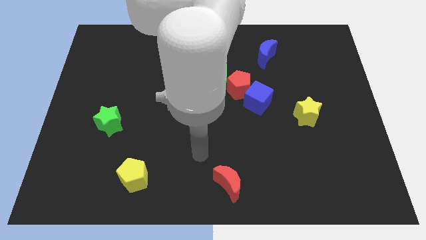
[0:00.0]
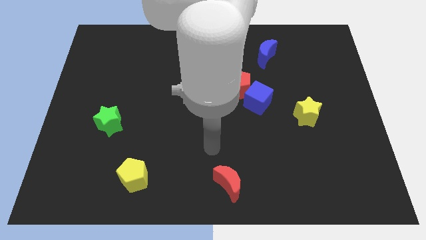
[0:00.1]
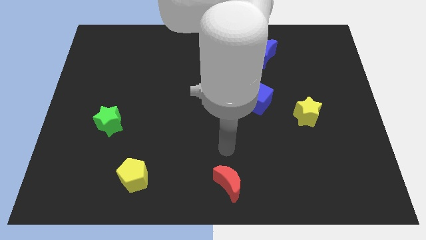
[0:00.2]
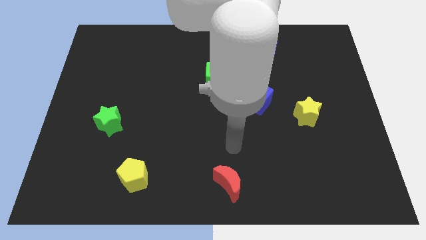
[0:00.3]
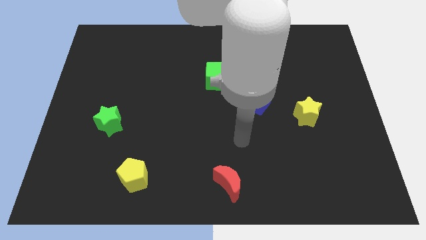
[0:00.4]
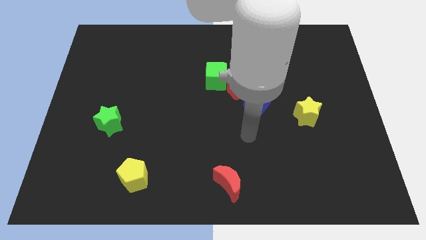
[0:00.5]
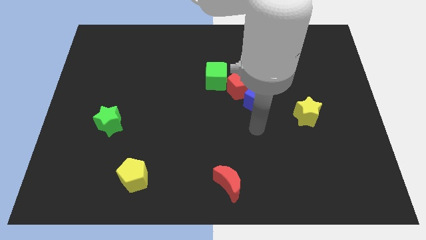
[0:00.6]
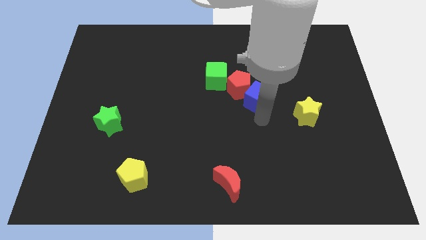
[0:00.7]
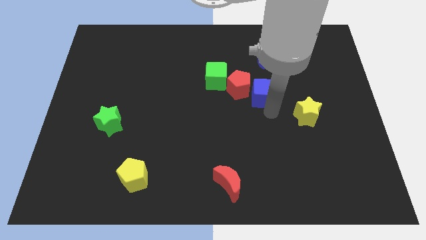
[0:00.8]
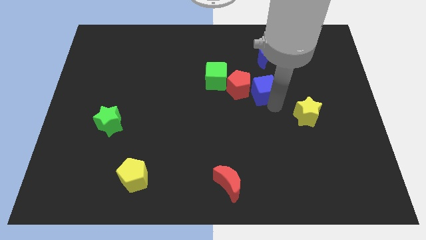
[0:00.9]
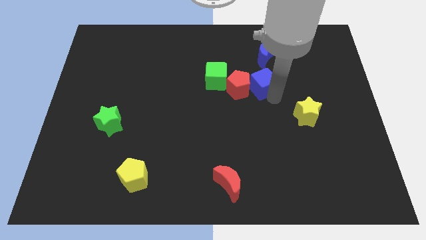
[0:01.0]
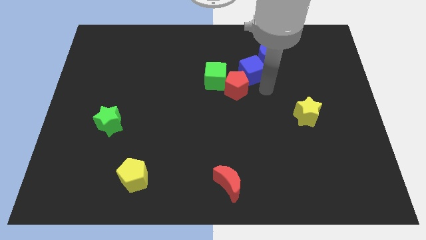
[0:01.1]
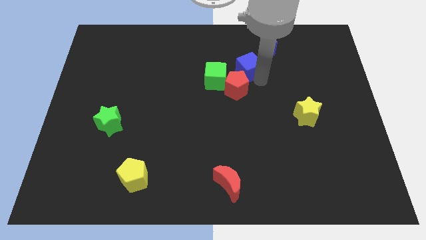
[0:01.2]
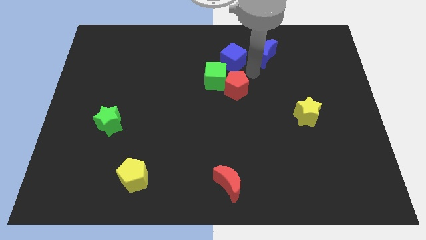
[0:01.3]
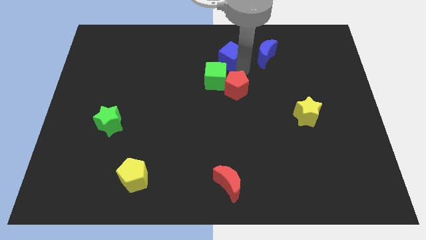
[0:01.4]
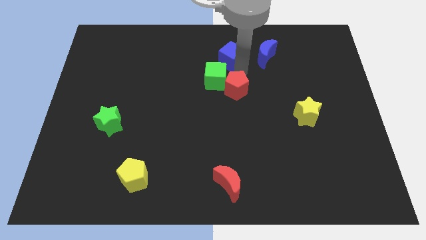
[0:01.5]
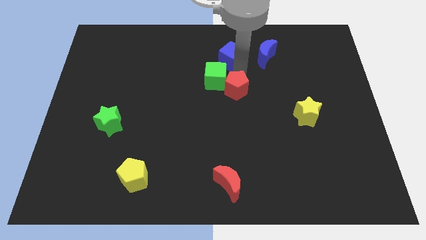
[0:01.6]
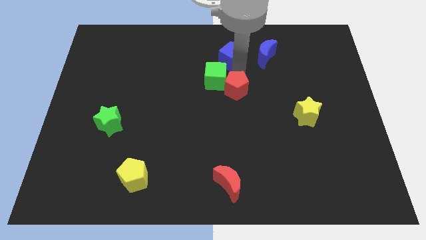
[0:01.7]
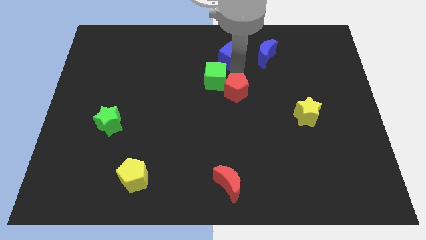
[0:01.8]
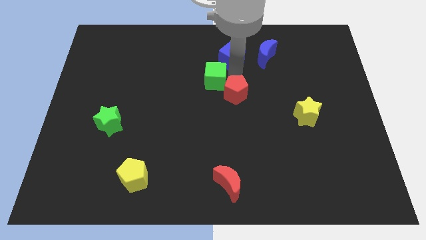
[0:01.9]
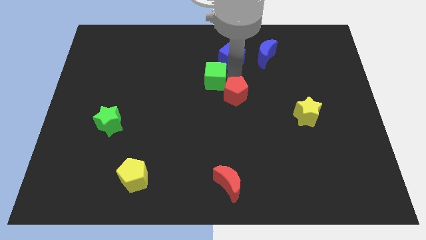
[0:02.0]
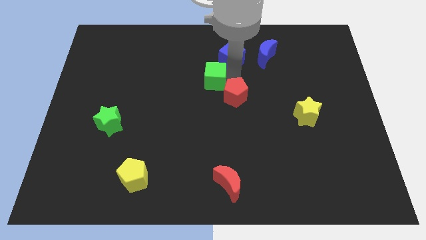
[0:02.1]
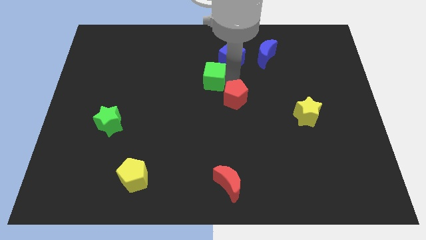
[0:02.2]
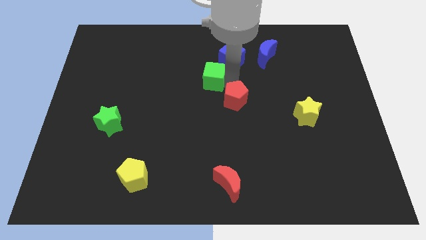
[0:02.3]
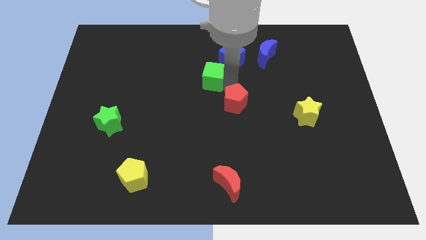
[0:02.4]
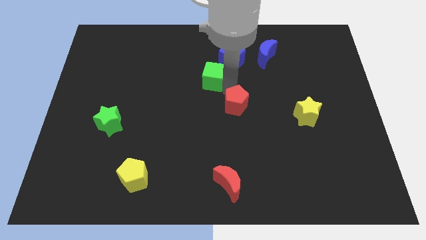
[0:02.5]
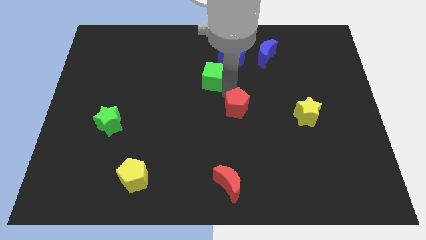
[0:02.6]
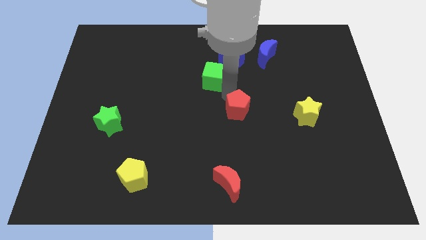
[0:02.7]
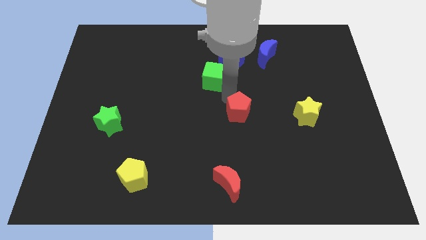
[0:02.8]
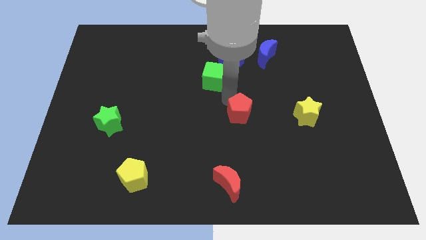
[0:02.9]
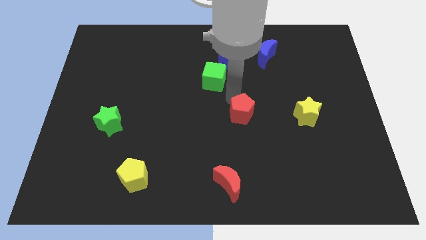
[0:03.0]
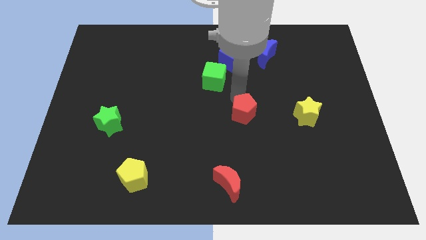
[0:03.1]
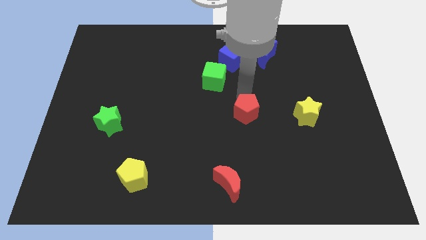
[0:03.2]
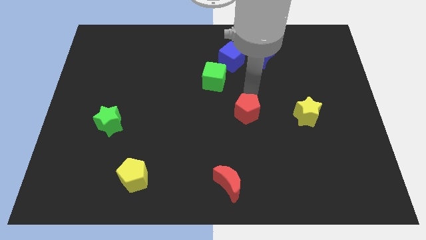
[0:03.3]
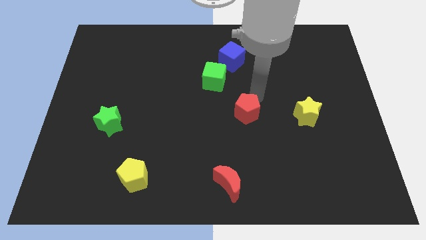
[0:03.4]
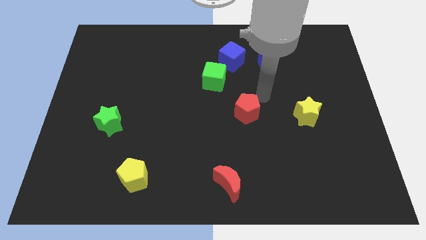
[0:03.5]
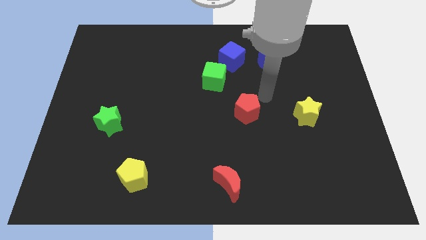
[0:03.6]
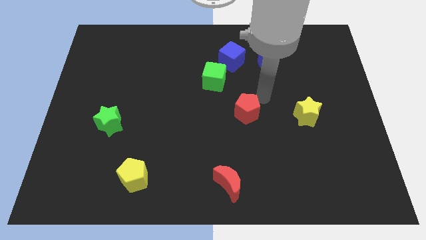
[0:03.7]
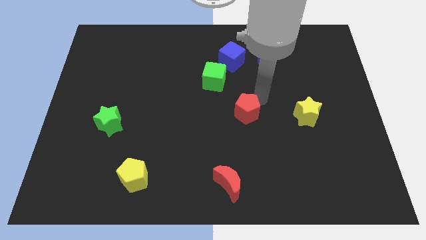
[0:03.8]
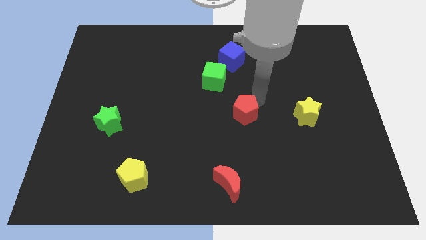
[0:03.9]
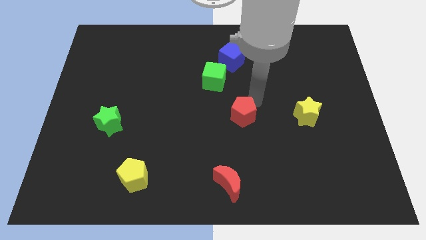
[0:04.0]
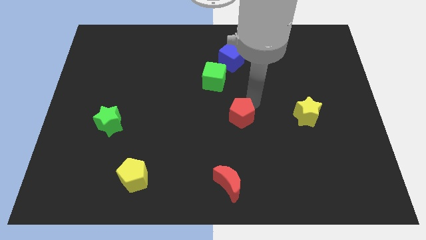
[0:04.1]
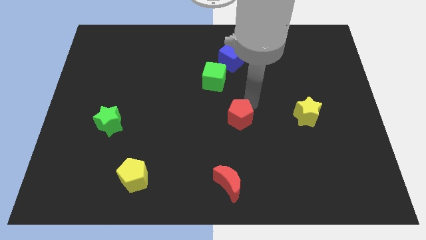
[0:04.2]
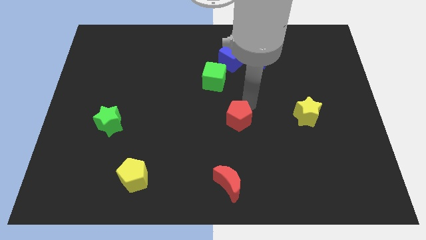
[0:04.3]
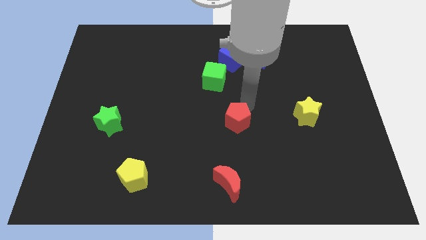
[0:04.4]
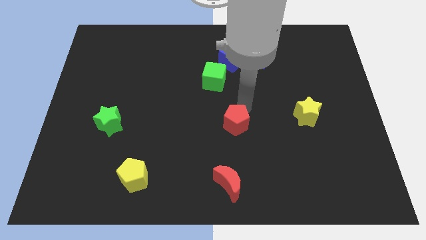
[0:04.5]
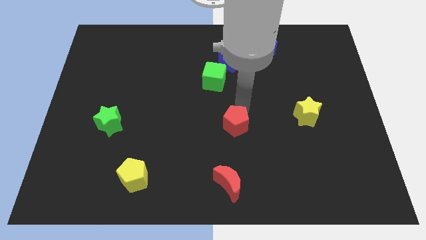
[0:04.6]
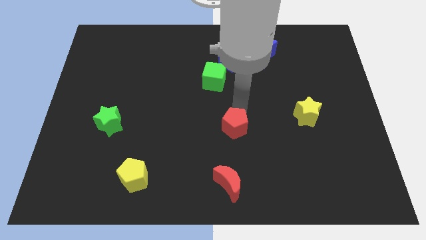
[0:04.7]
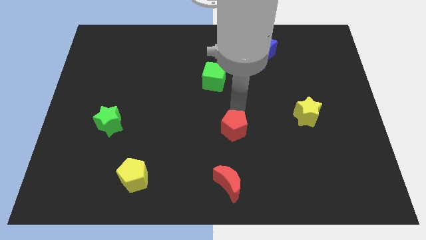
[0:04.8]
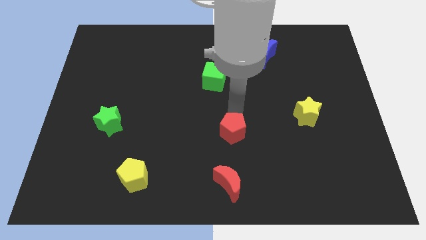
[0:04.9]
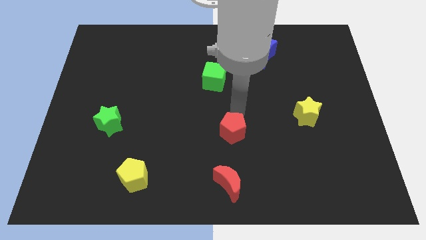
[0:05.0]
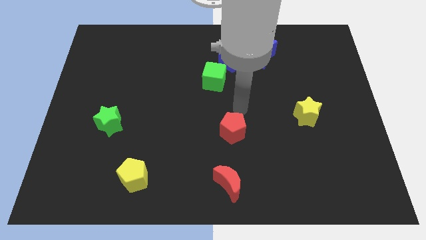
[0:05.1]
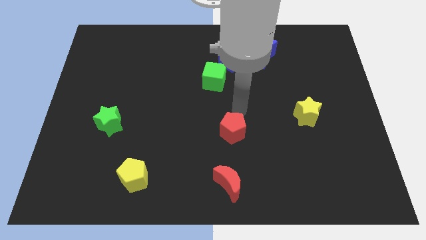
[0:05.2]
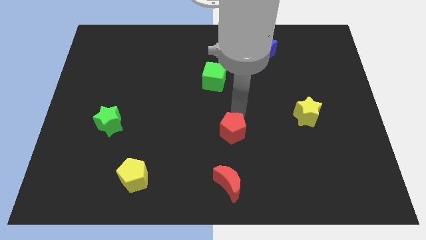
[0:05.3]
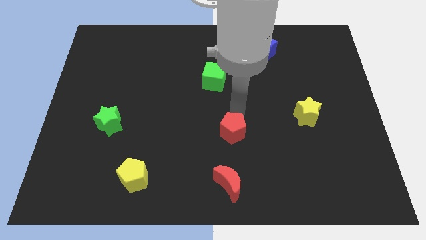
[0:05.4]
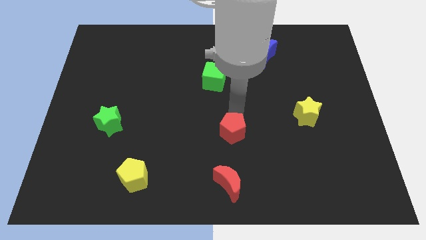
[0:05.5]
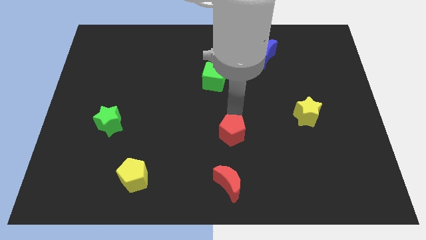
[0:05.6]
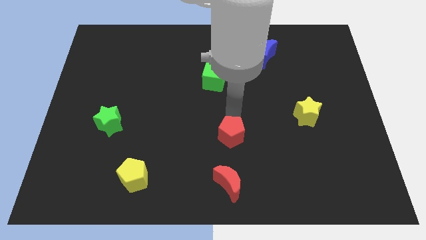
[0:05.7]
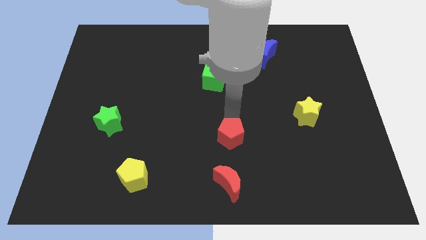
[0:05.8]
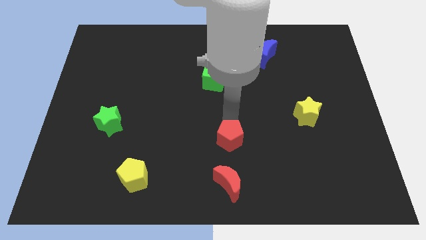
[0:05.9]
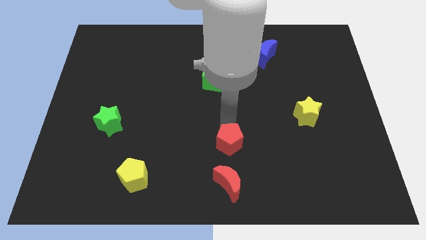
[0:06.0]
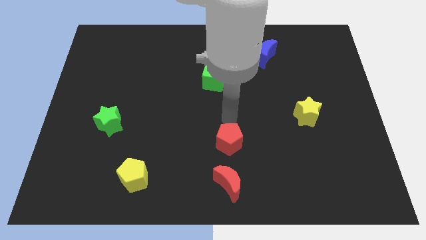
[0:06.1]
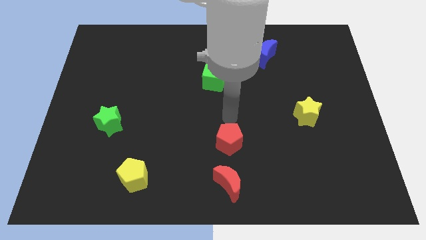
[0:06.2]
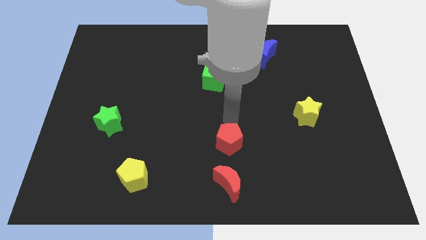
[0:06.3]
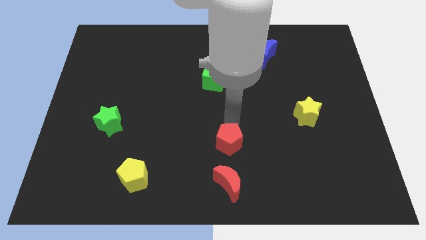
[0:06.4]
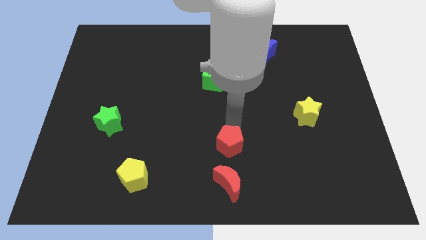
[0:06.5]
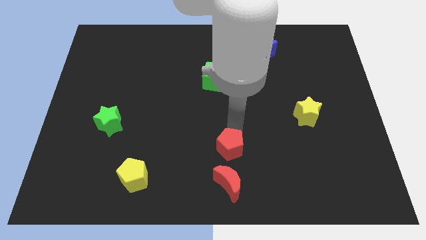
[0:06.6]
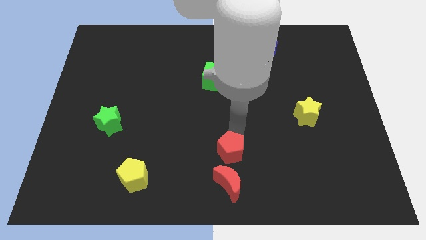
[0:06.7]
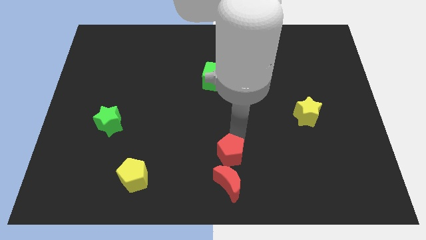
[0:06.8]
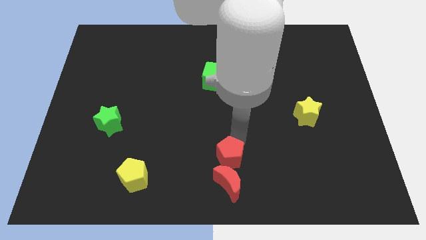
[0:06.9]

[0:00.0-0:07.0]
slide the red pentagon next to the red moon

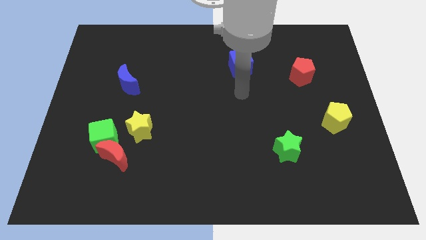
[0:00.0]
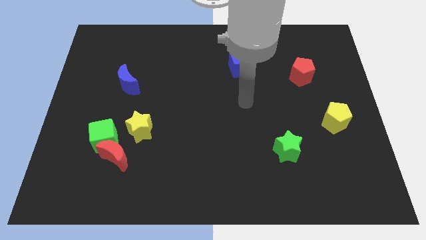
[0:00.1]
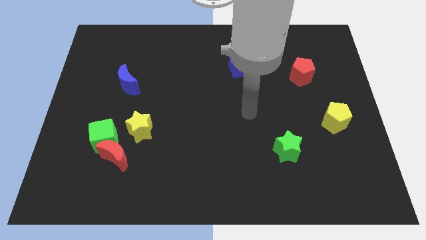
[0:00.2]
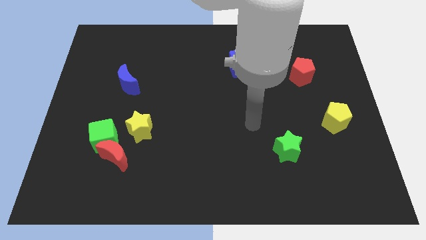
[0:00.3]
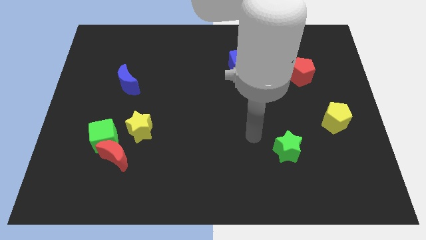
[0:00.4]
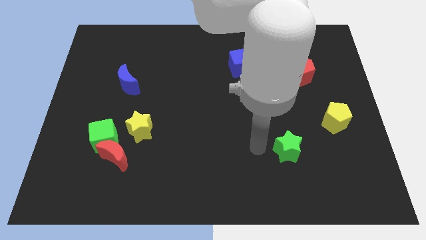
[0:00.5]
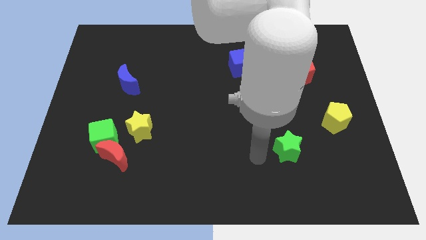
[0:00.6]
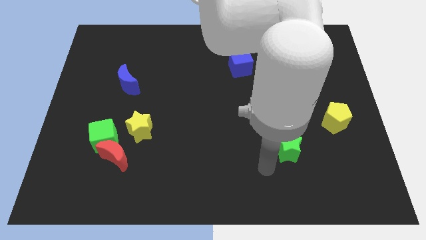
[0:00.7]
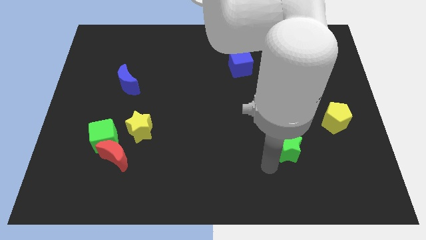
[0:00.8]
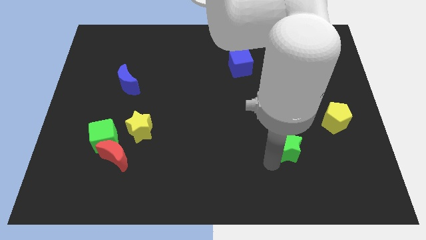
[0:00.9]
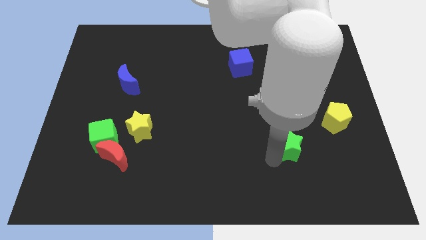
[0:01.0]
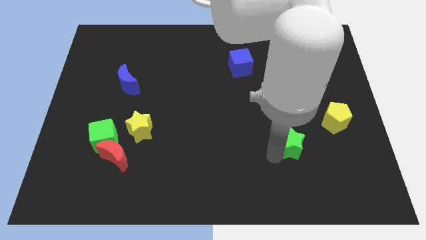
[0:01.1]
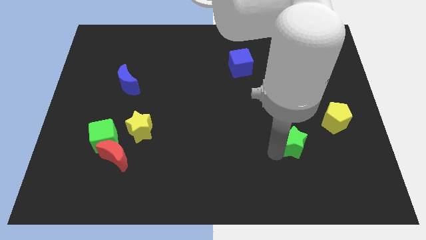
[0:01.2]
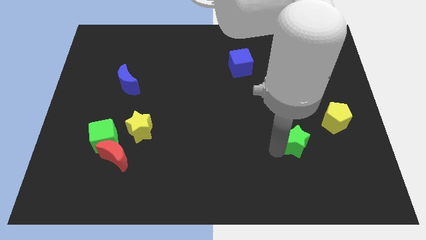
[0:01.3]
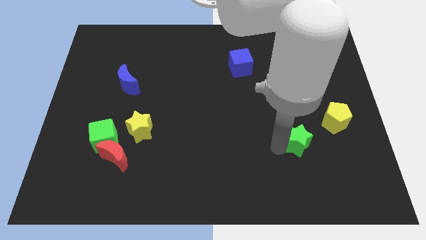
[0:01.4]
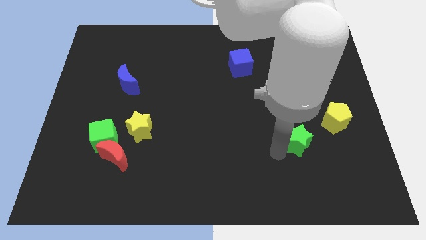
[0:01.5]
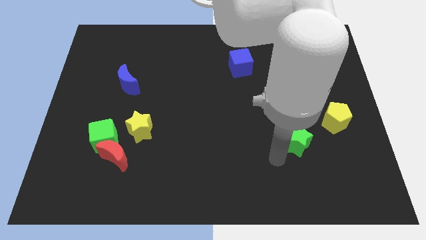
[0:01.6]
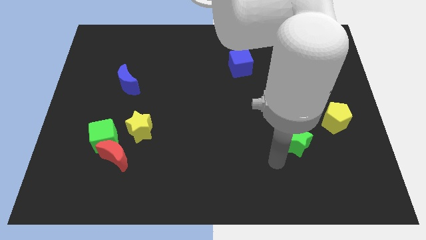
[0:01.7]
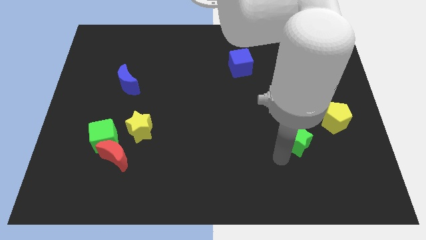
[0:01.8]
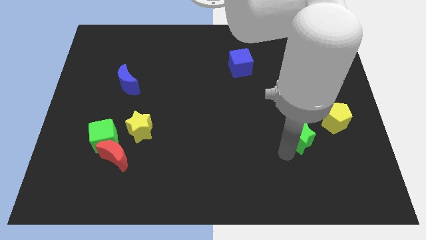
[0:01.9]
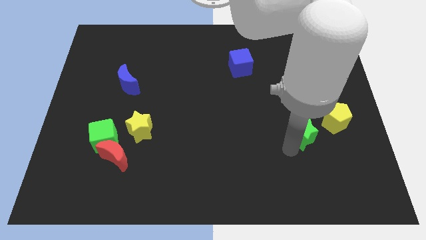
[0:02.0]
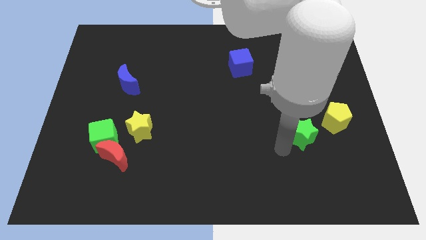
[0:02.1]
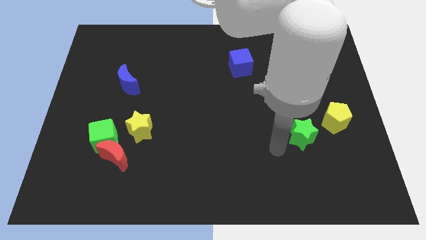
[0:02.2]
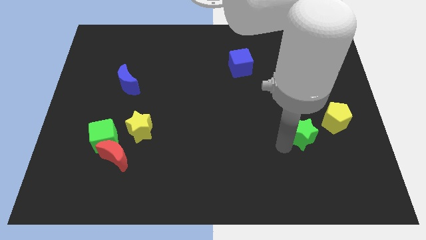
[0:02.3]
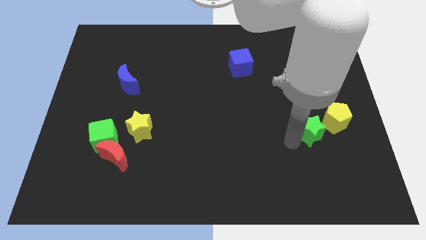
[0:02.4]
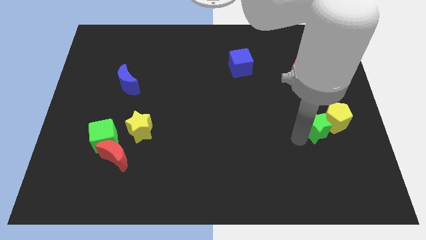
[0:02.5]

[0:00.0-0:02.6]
push the green star next to the yellow pentagon
